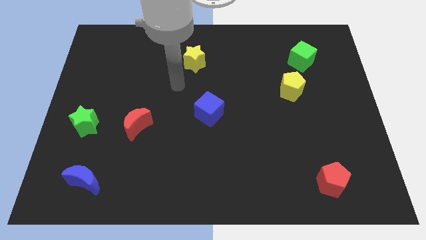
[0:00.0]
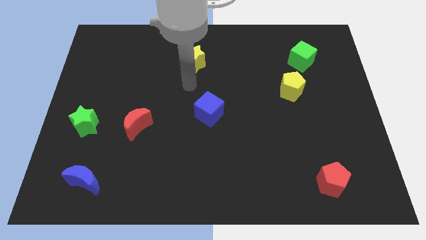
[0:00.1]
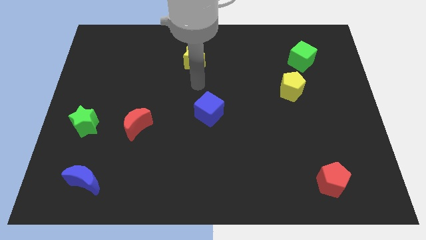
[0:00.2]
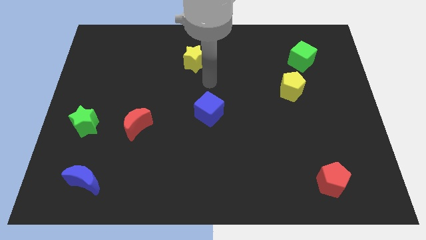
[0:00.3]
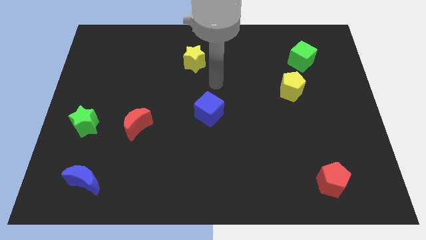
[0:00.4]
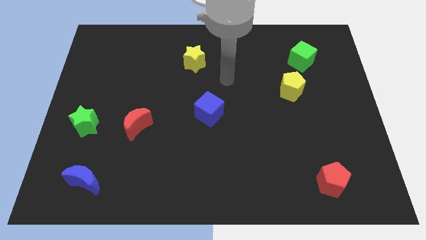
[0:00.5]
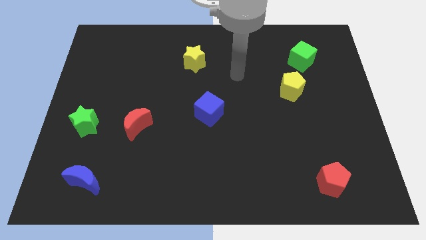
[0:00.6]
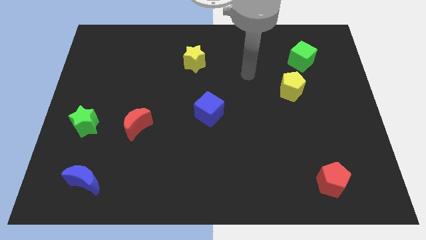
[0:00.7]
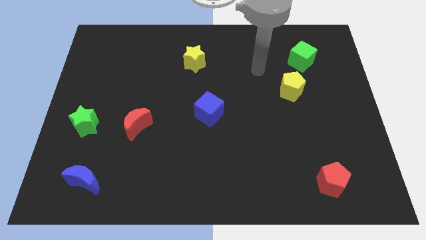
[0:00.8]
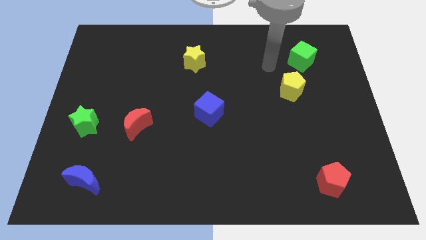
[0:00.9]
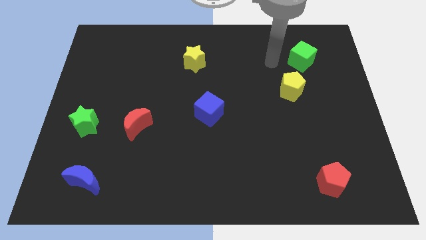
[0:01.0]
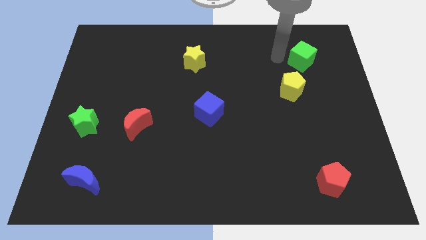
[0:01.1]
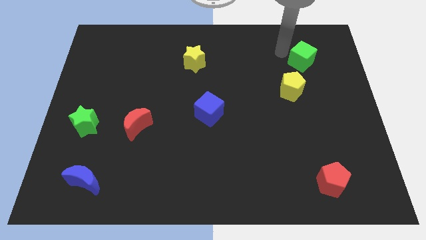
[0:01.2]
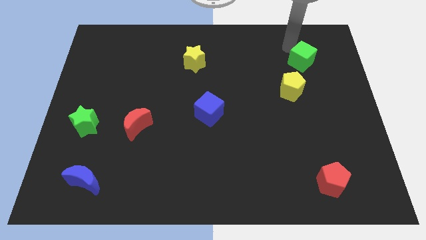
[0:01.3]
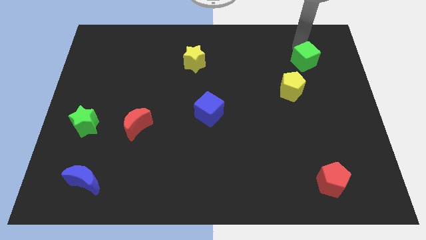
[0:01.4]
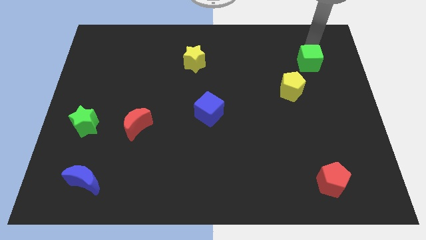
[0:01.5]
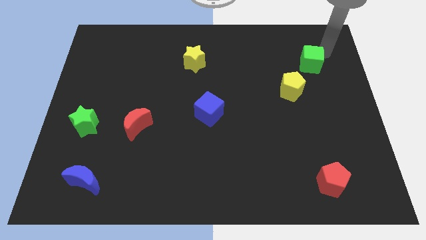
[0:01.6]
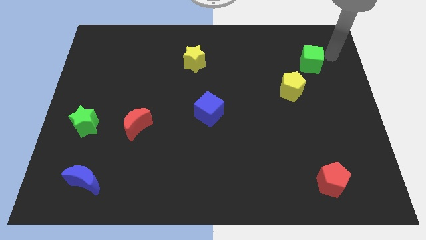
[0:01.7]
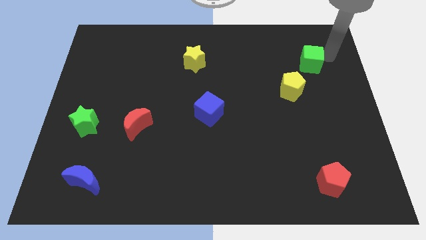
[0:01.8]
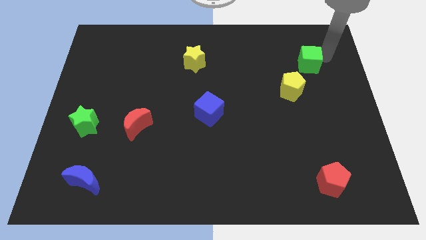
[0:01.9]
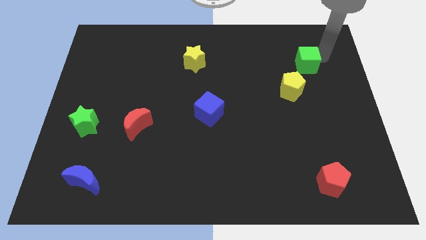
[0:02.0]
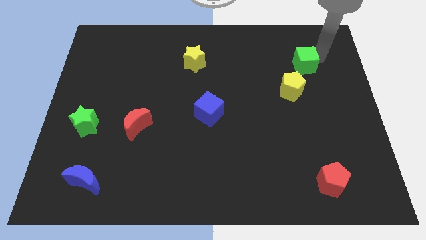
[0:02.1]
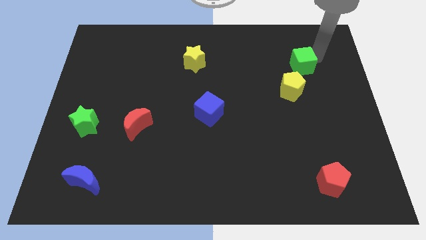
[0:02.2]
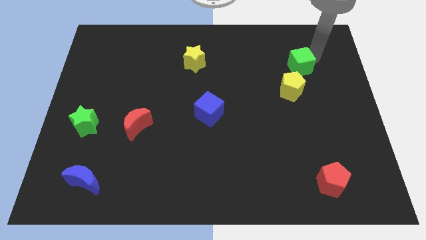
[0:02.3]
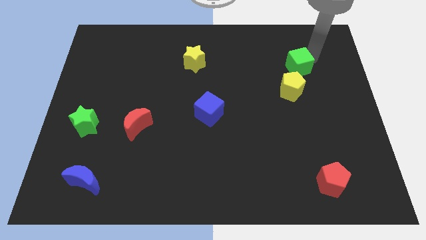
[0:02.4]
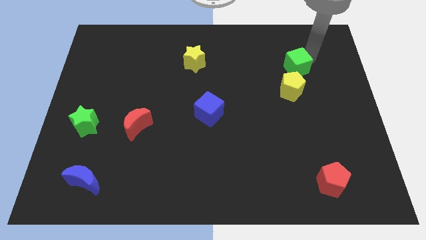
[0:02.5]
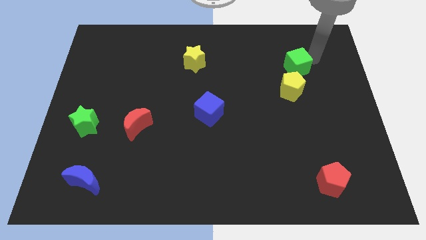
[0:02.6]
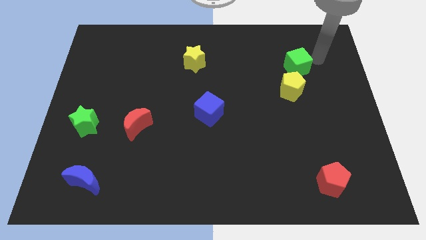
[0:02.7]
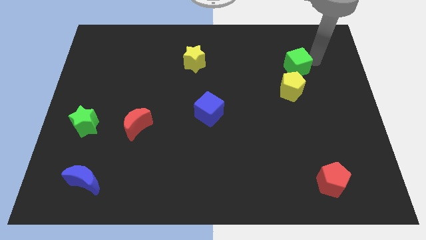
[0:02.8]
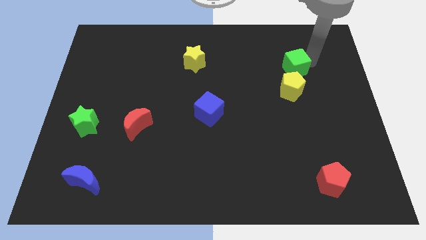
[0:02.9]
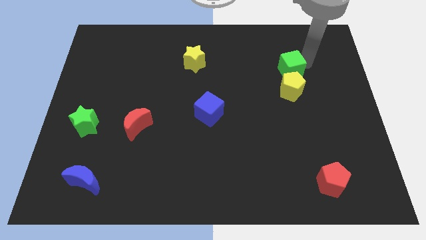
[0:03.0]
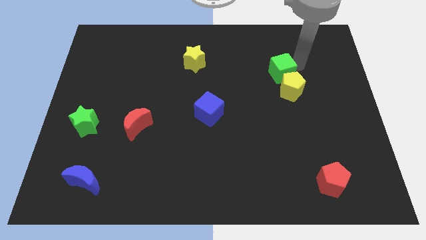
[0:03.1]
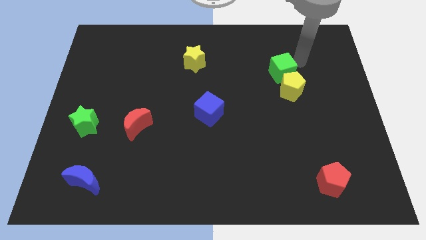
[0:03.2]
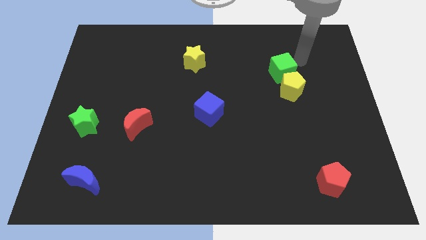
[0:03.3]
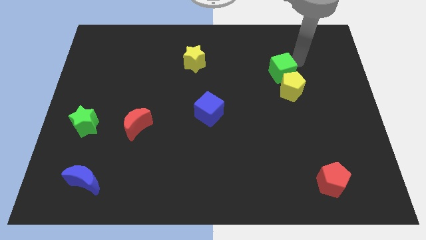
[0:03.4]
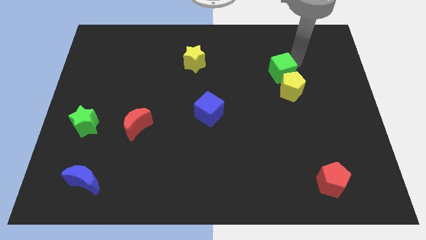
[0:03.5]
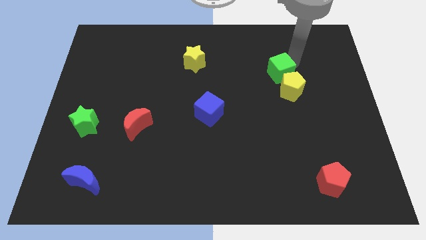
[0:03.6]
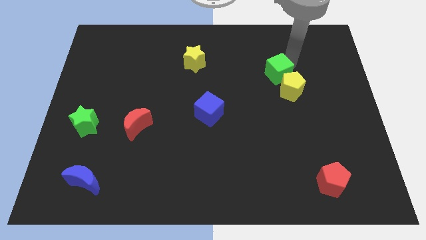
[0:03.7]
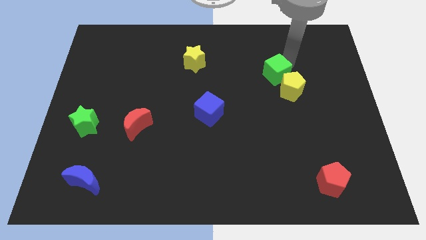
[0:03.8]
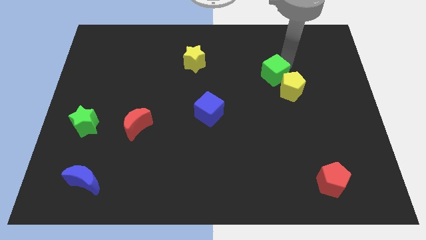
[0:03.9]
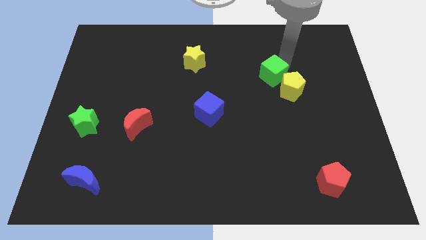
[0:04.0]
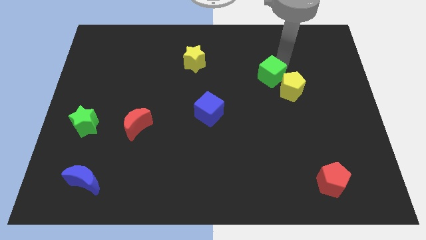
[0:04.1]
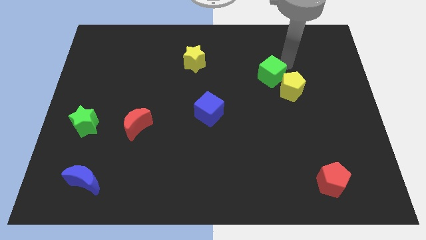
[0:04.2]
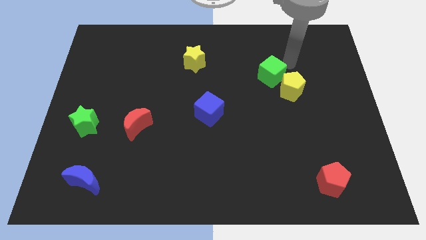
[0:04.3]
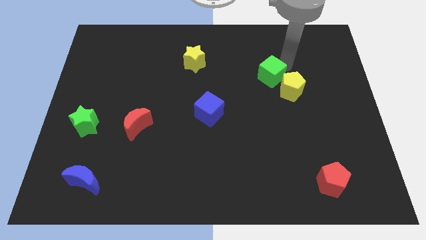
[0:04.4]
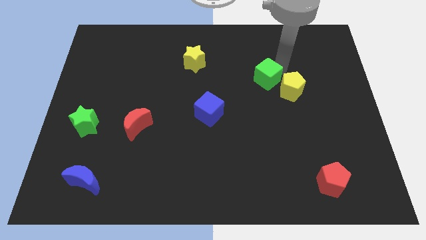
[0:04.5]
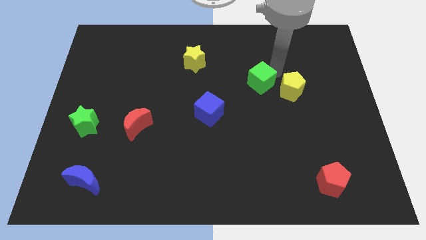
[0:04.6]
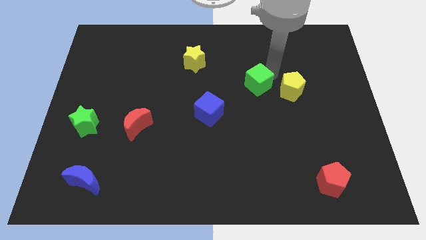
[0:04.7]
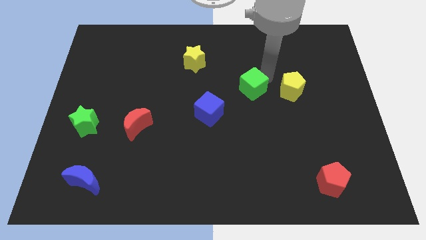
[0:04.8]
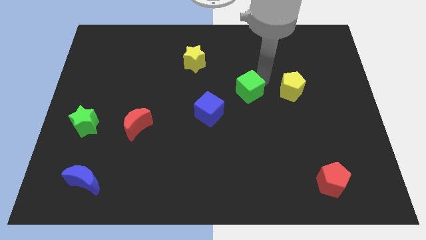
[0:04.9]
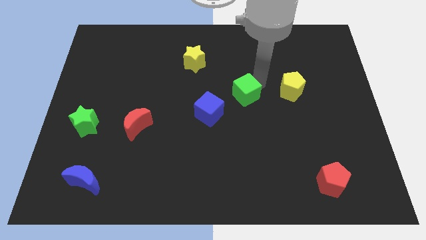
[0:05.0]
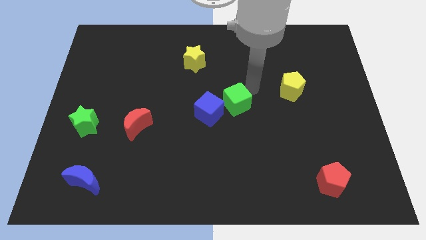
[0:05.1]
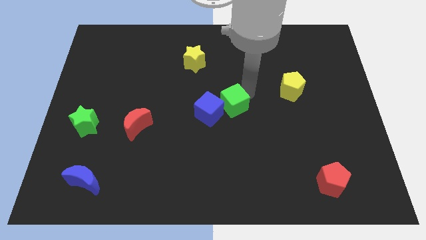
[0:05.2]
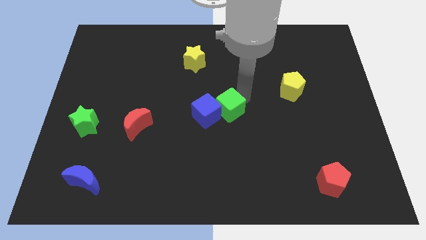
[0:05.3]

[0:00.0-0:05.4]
push the green cube next to the blue cube

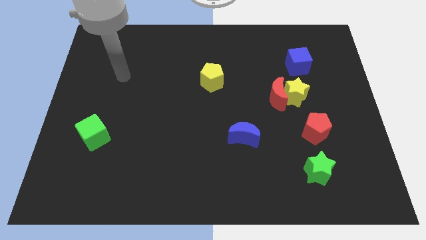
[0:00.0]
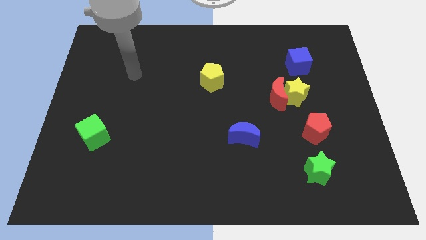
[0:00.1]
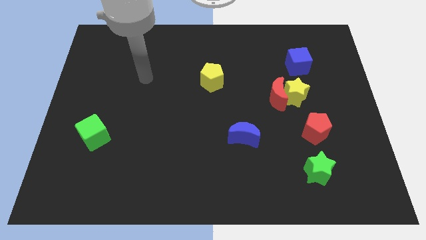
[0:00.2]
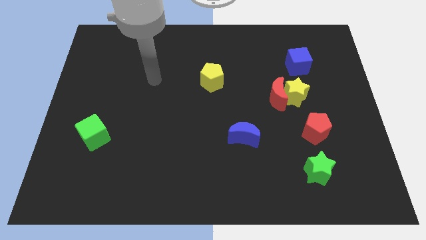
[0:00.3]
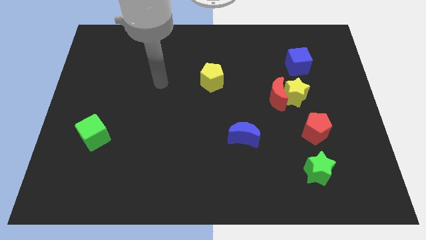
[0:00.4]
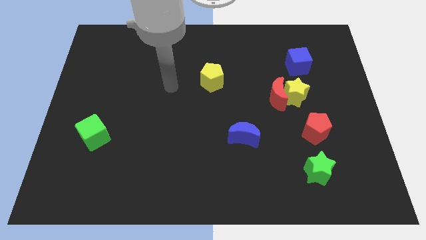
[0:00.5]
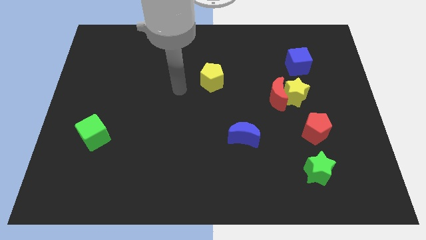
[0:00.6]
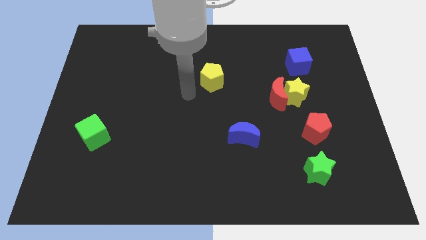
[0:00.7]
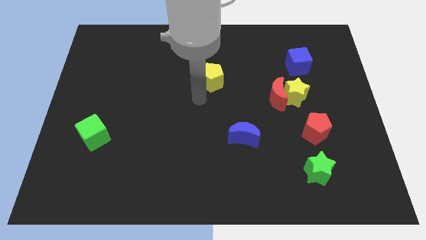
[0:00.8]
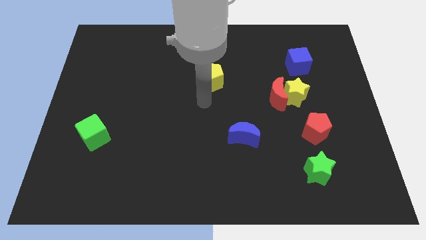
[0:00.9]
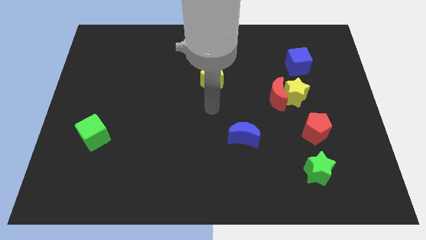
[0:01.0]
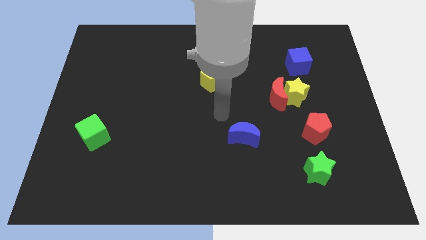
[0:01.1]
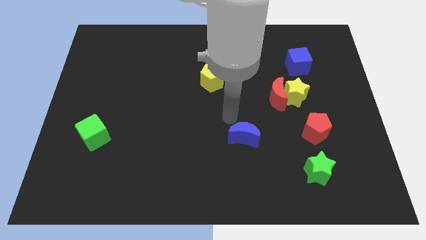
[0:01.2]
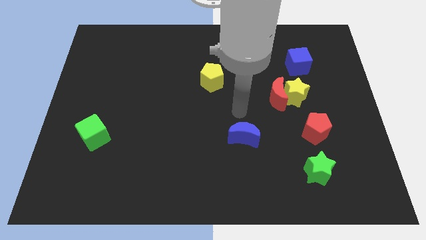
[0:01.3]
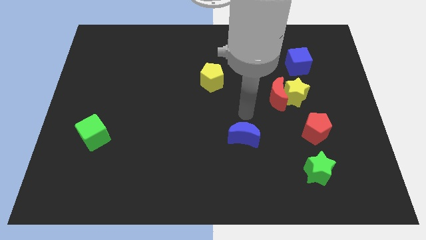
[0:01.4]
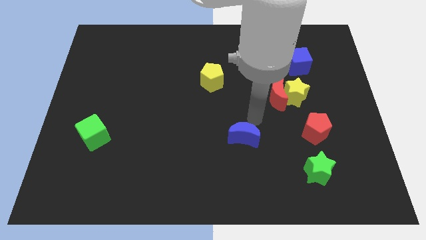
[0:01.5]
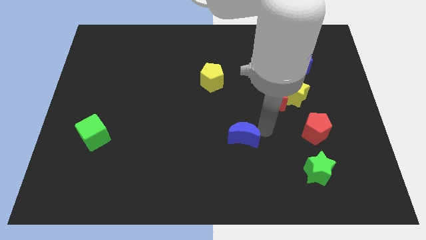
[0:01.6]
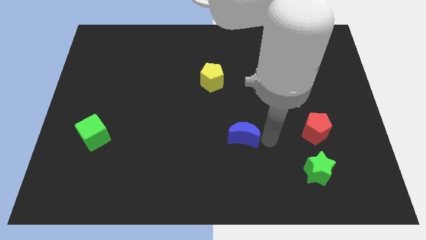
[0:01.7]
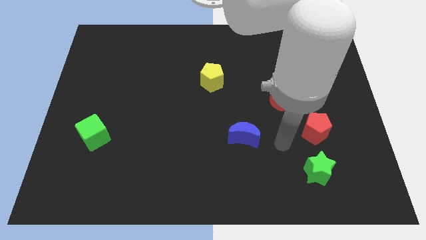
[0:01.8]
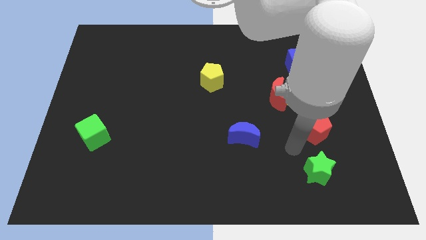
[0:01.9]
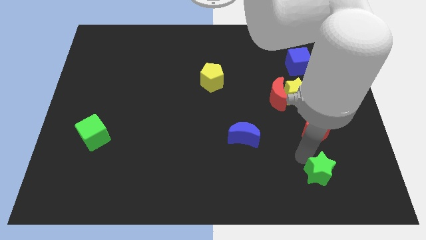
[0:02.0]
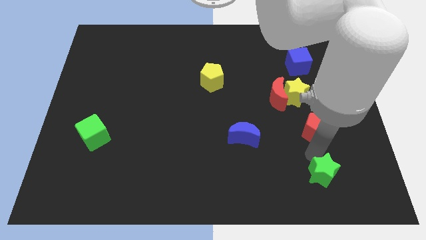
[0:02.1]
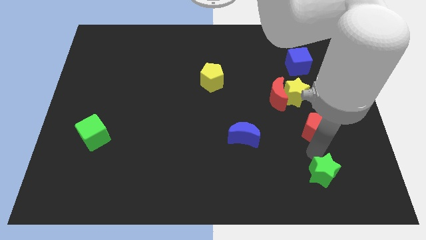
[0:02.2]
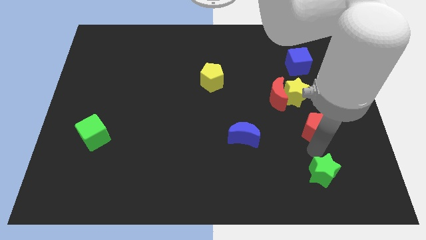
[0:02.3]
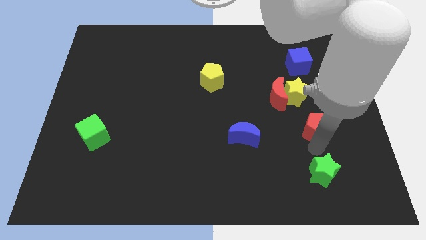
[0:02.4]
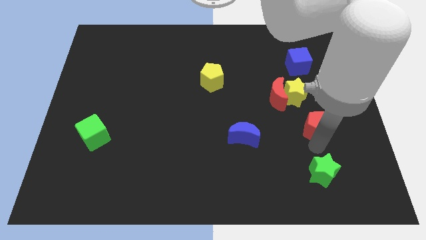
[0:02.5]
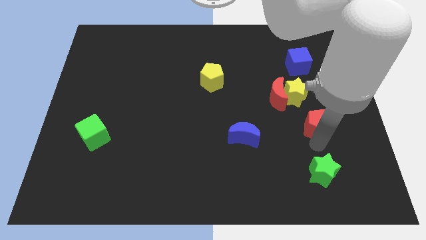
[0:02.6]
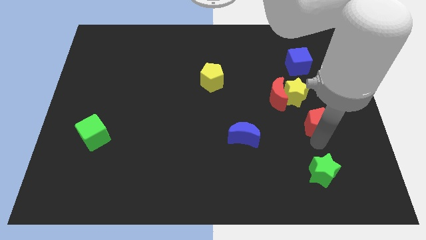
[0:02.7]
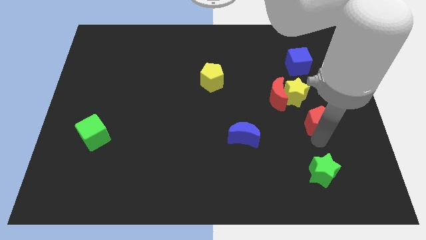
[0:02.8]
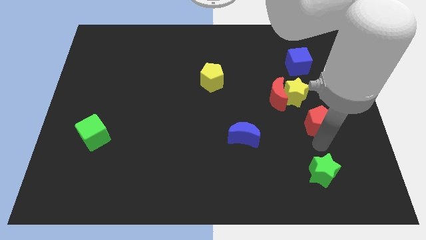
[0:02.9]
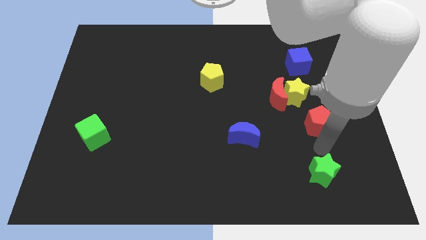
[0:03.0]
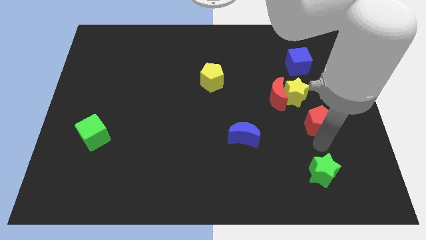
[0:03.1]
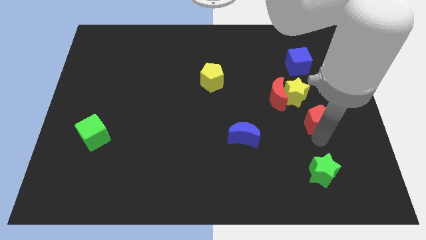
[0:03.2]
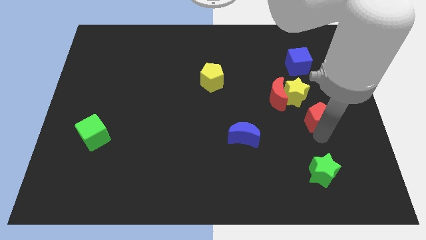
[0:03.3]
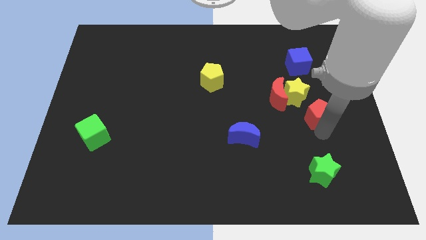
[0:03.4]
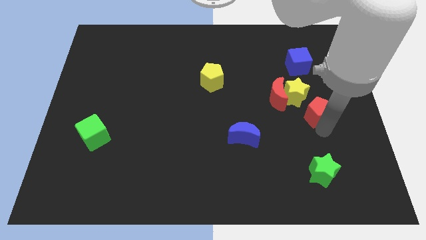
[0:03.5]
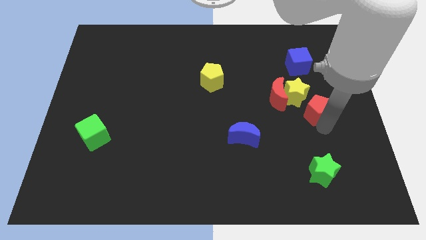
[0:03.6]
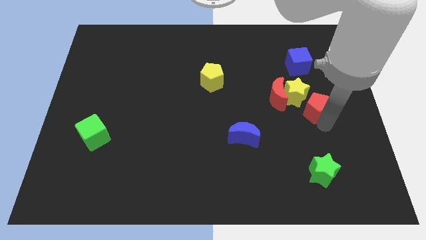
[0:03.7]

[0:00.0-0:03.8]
slide the red pentagon close to the yellow star
